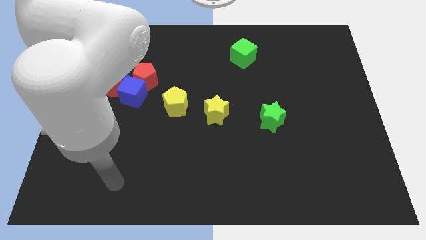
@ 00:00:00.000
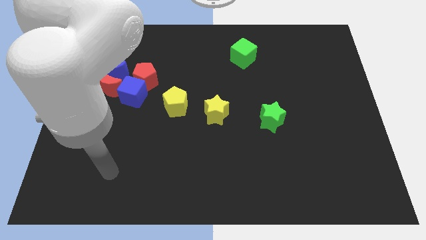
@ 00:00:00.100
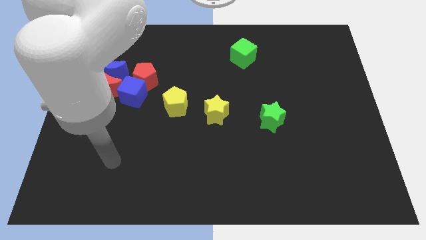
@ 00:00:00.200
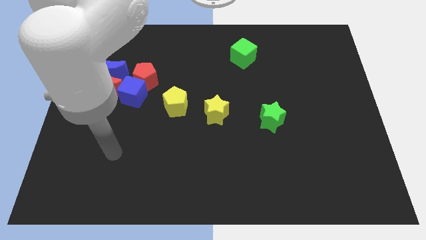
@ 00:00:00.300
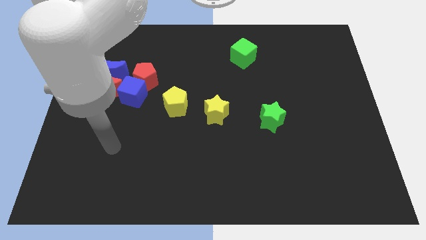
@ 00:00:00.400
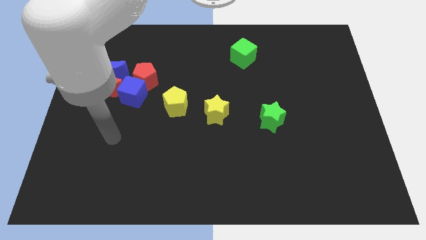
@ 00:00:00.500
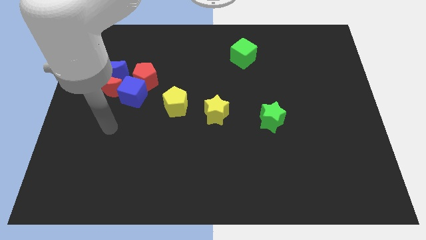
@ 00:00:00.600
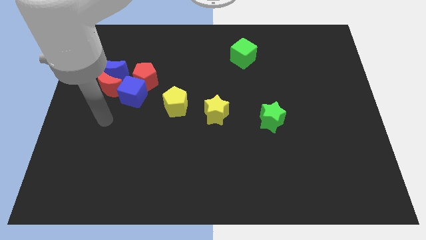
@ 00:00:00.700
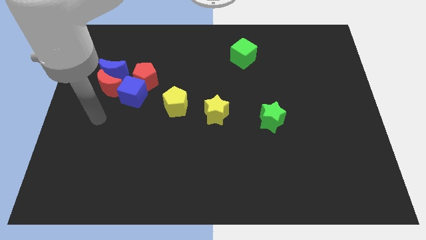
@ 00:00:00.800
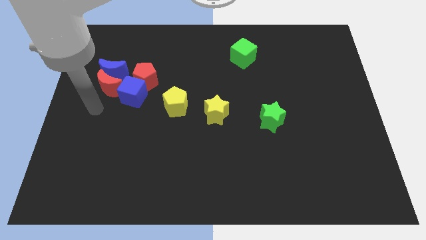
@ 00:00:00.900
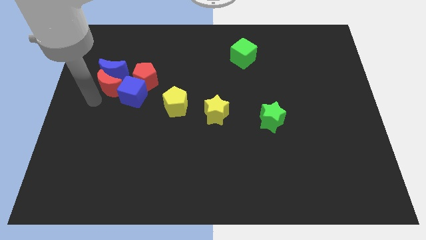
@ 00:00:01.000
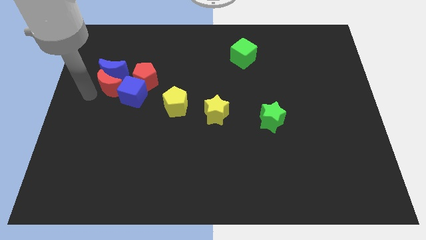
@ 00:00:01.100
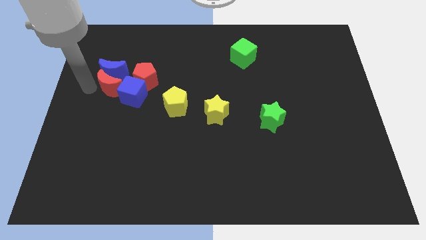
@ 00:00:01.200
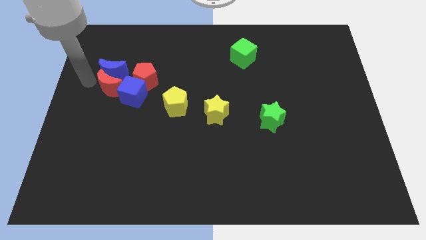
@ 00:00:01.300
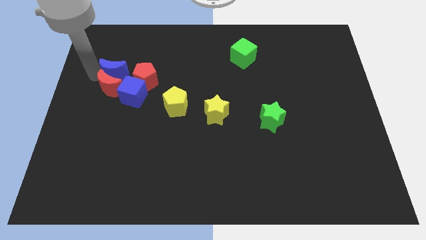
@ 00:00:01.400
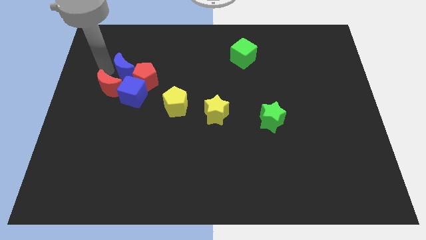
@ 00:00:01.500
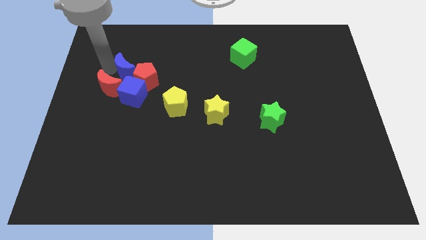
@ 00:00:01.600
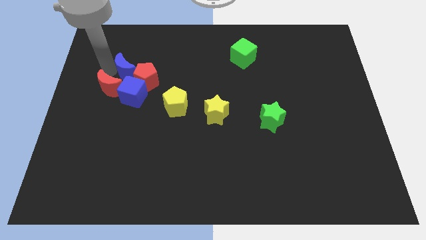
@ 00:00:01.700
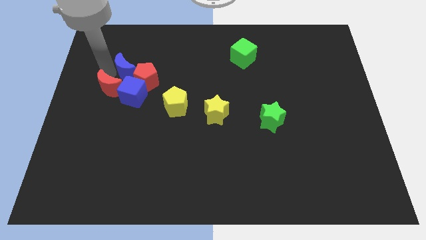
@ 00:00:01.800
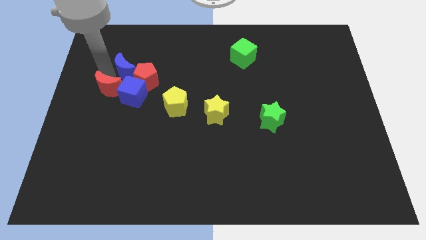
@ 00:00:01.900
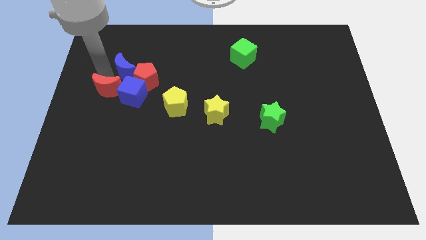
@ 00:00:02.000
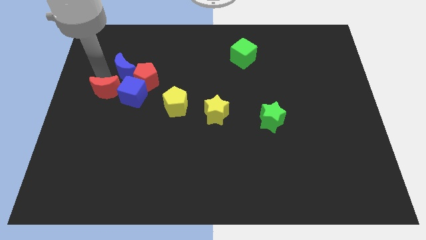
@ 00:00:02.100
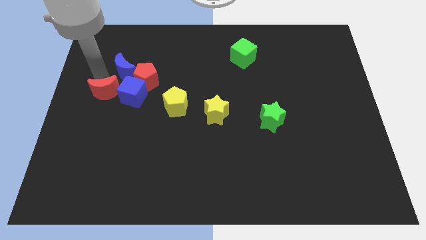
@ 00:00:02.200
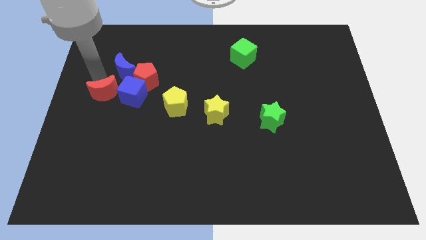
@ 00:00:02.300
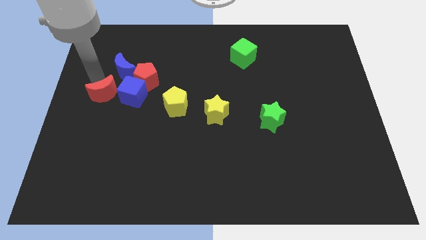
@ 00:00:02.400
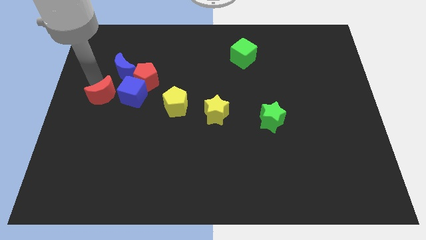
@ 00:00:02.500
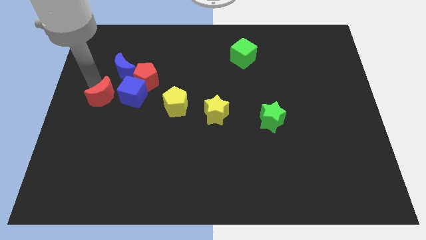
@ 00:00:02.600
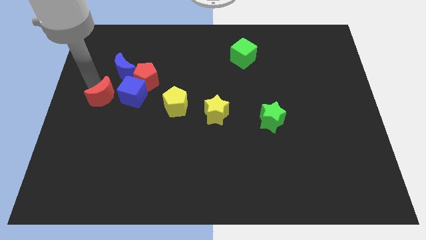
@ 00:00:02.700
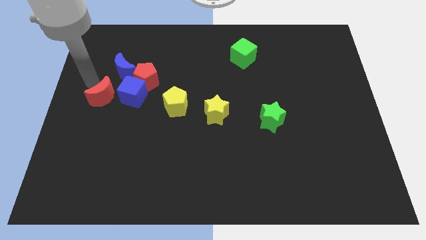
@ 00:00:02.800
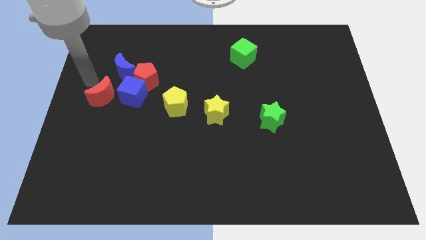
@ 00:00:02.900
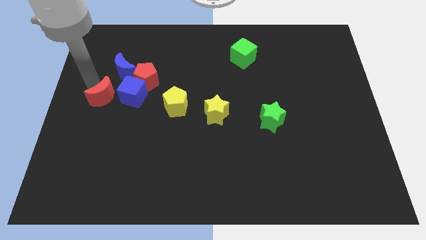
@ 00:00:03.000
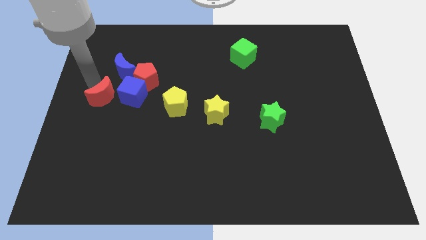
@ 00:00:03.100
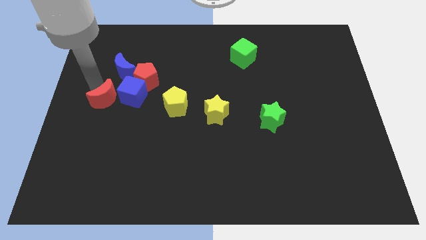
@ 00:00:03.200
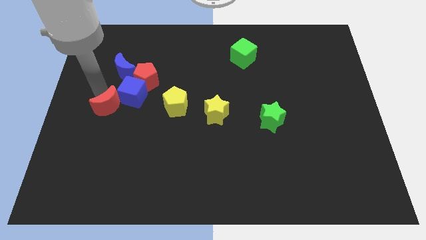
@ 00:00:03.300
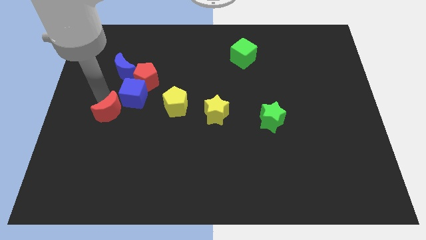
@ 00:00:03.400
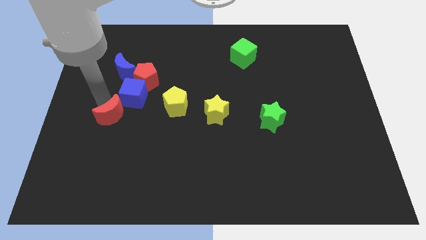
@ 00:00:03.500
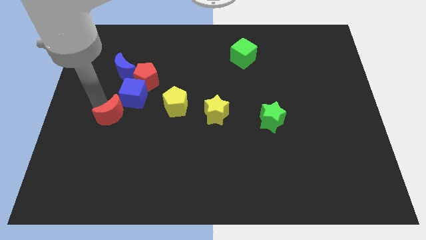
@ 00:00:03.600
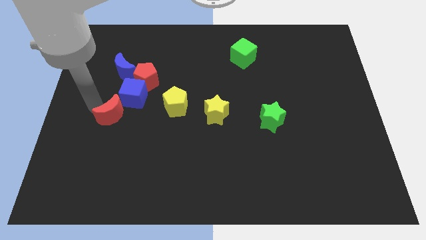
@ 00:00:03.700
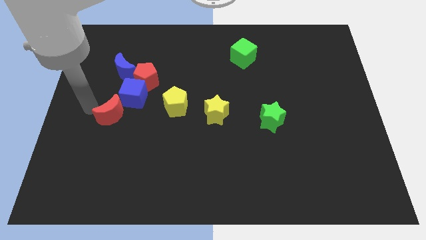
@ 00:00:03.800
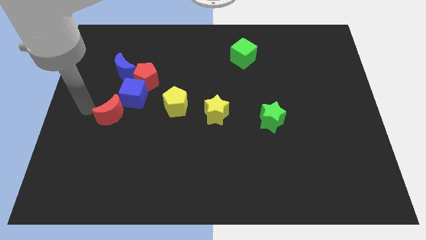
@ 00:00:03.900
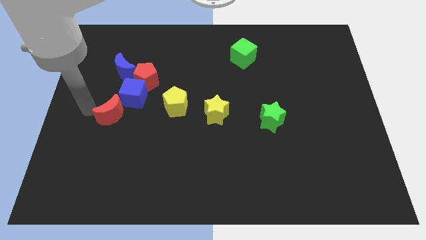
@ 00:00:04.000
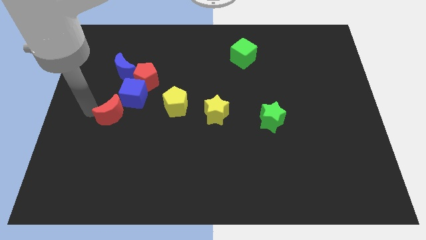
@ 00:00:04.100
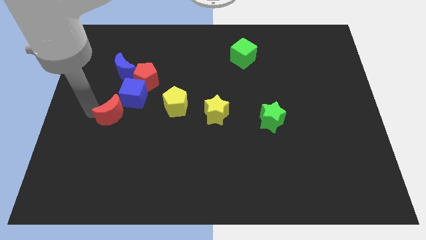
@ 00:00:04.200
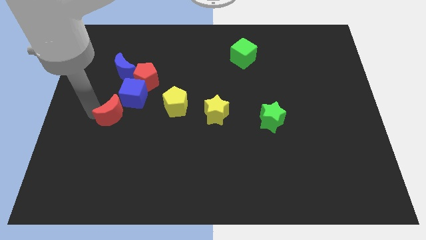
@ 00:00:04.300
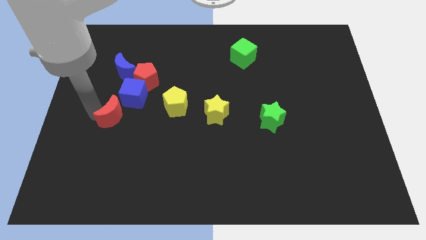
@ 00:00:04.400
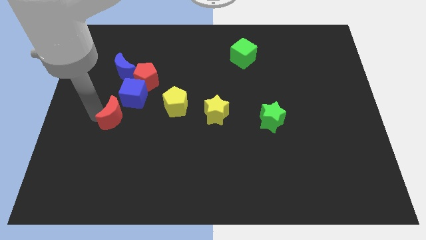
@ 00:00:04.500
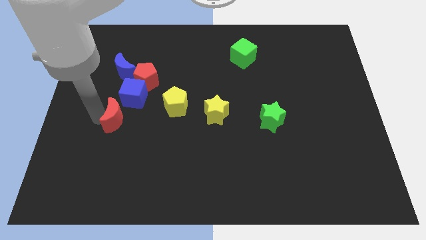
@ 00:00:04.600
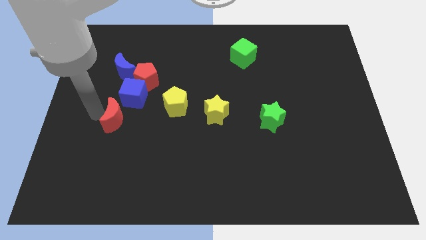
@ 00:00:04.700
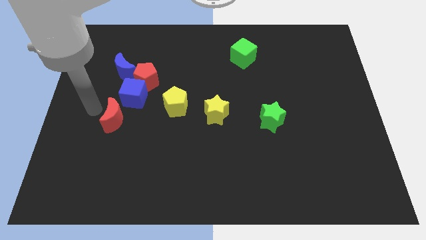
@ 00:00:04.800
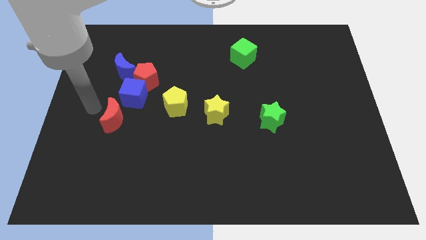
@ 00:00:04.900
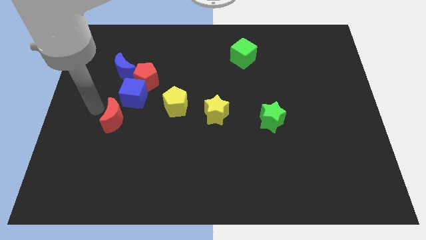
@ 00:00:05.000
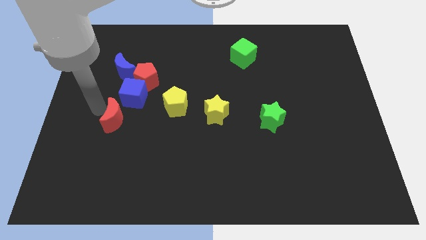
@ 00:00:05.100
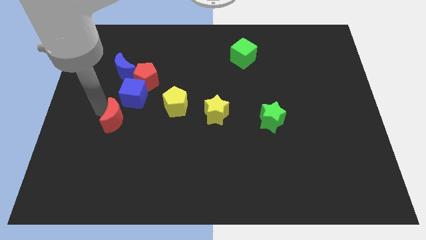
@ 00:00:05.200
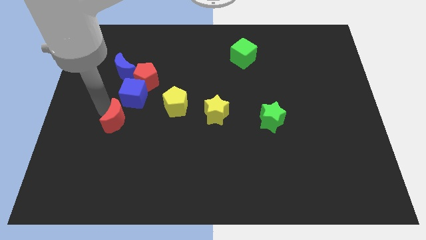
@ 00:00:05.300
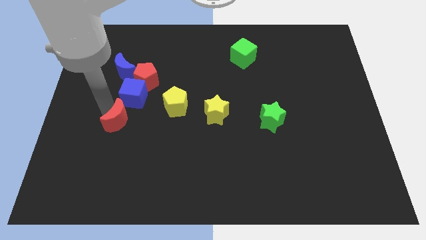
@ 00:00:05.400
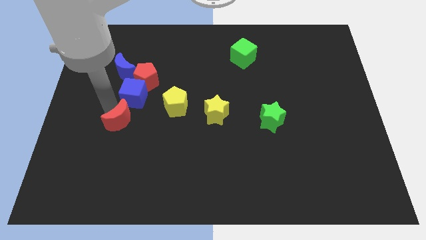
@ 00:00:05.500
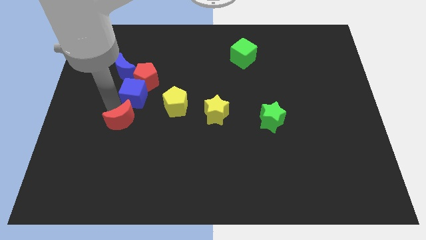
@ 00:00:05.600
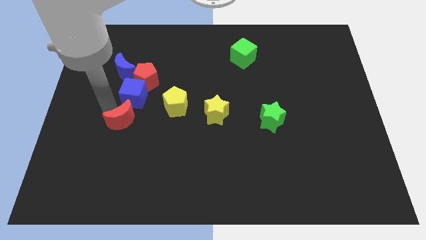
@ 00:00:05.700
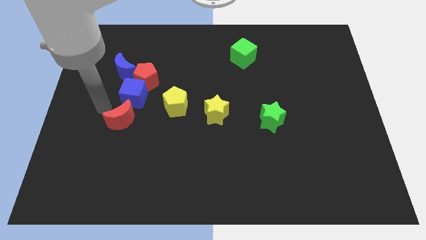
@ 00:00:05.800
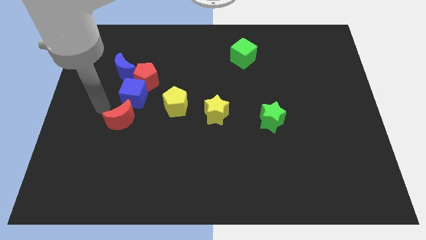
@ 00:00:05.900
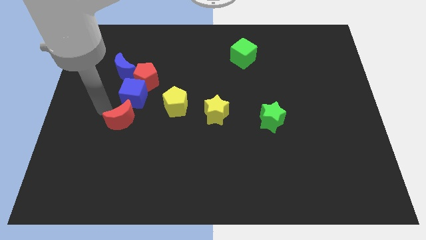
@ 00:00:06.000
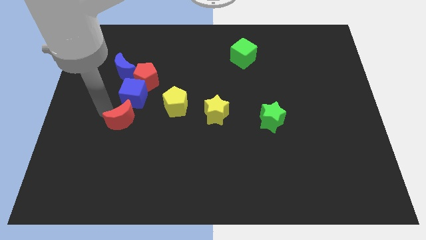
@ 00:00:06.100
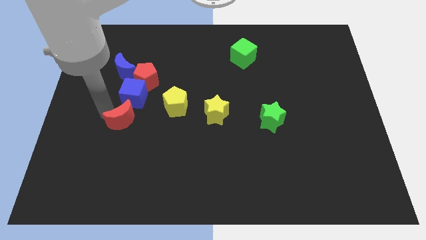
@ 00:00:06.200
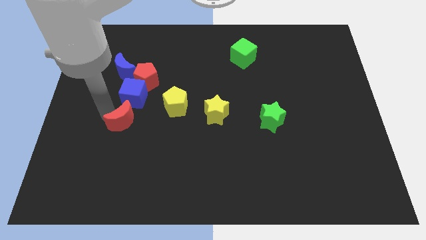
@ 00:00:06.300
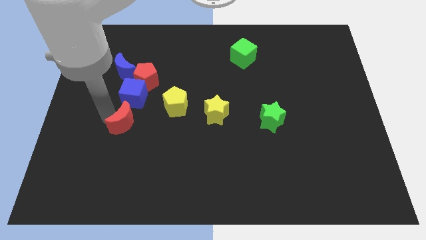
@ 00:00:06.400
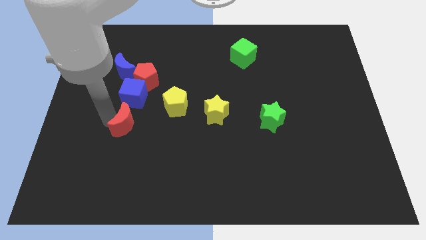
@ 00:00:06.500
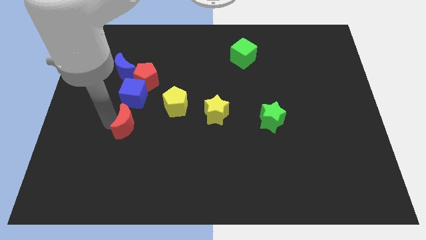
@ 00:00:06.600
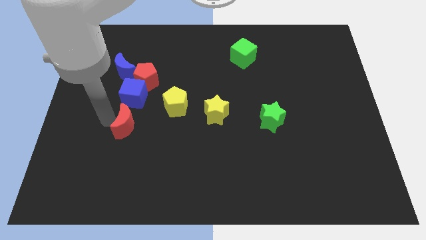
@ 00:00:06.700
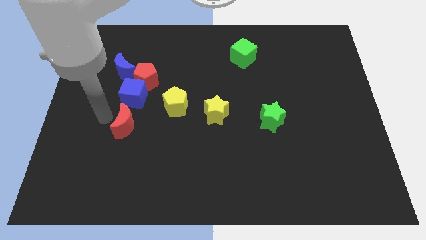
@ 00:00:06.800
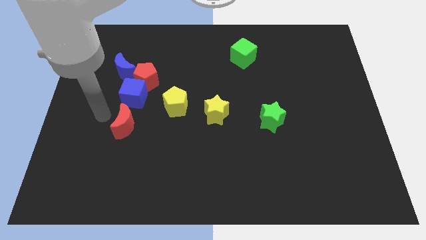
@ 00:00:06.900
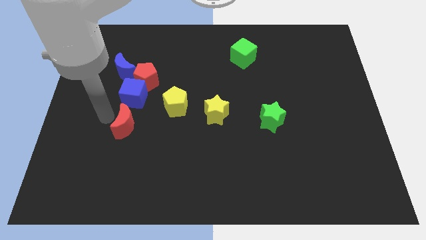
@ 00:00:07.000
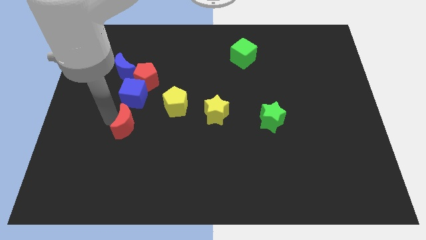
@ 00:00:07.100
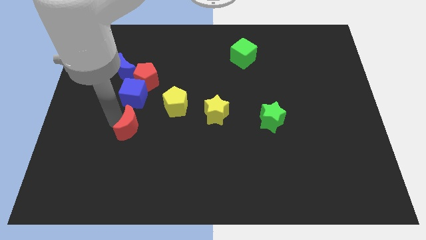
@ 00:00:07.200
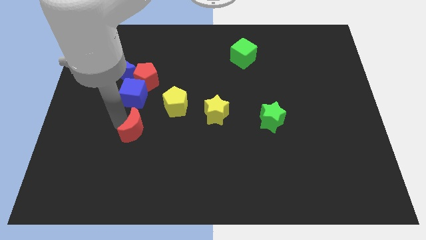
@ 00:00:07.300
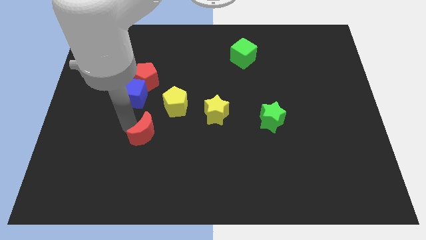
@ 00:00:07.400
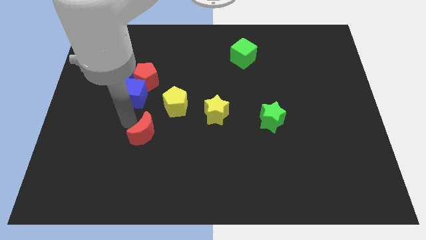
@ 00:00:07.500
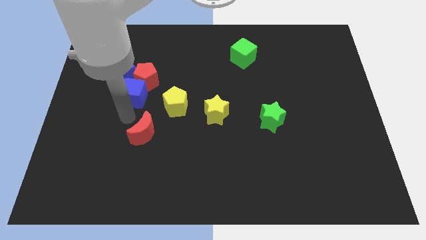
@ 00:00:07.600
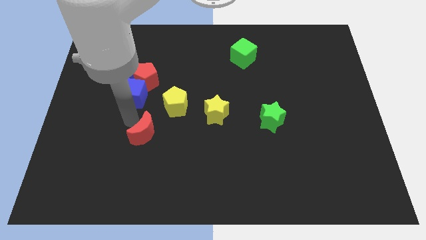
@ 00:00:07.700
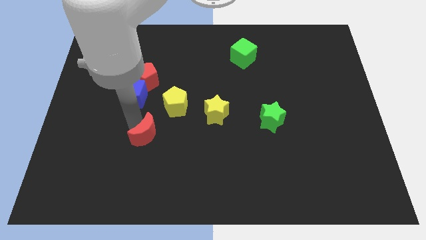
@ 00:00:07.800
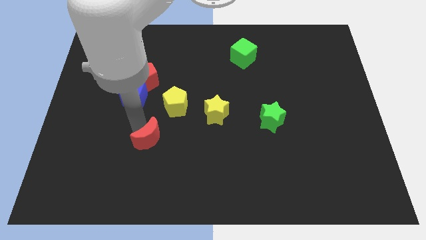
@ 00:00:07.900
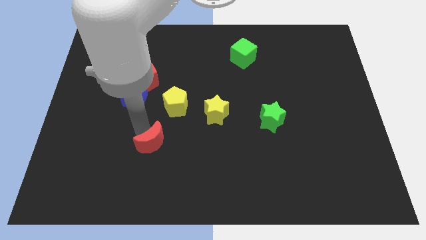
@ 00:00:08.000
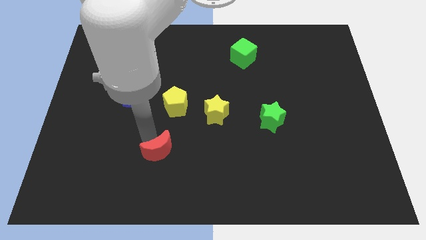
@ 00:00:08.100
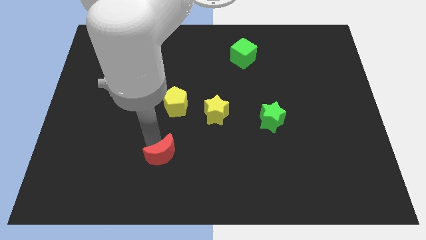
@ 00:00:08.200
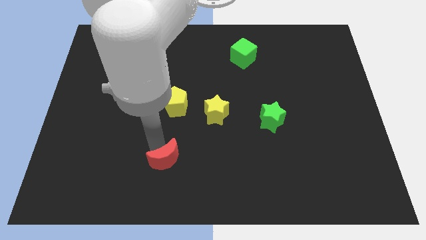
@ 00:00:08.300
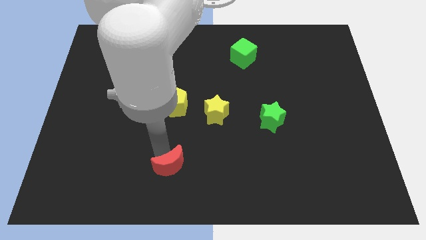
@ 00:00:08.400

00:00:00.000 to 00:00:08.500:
move the red moon to the bottom side
